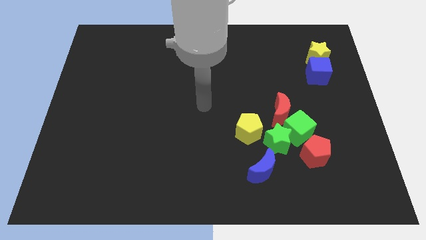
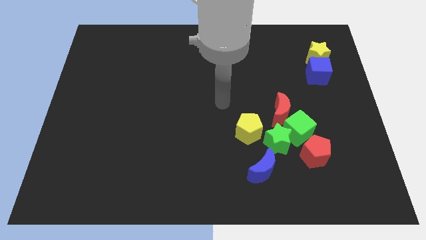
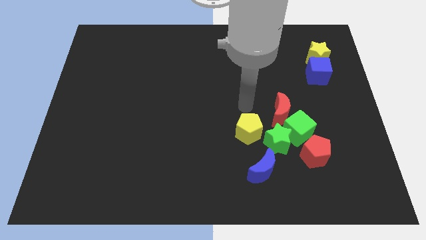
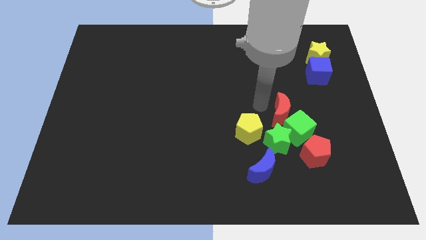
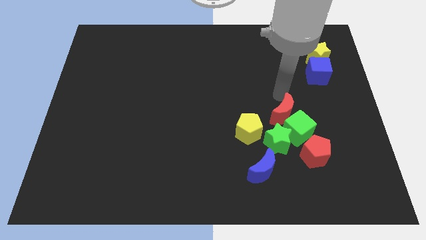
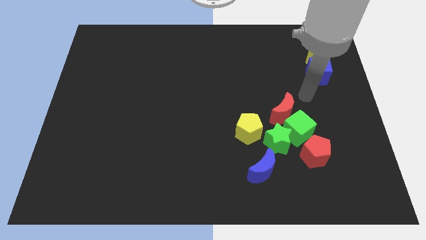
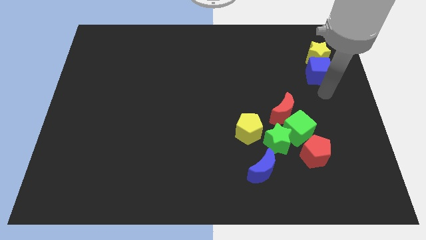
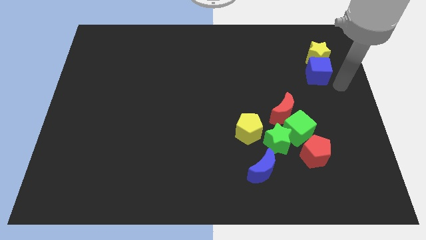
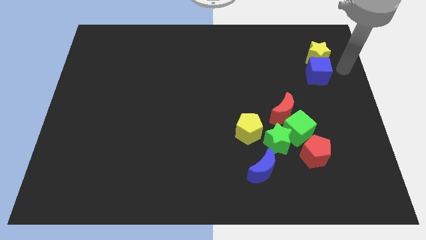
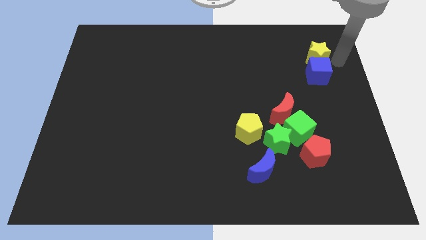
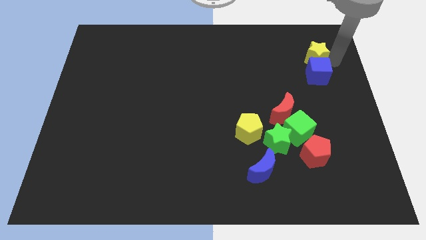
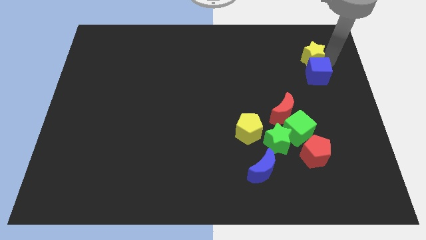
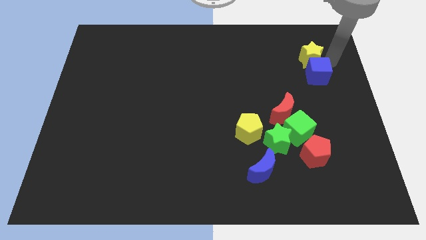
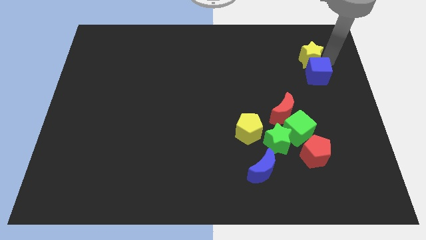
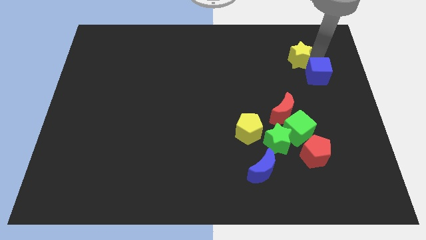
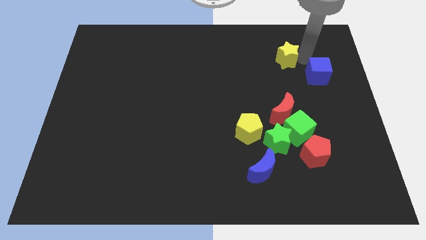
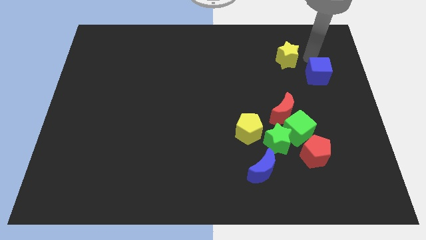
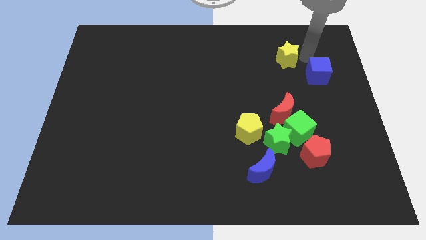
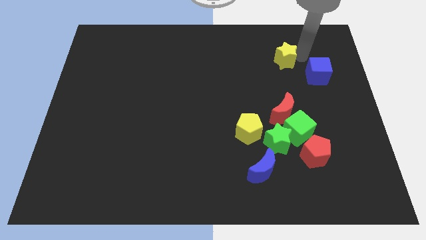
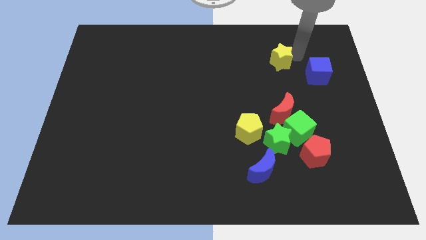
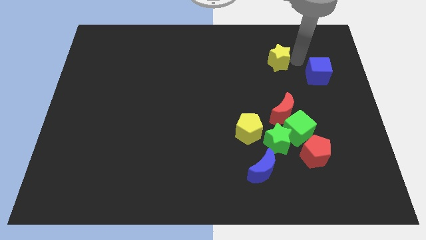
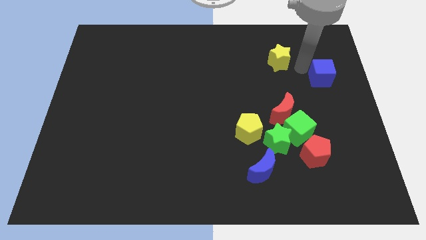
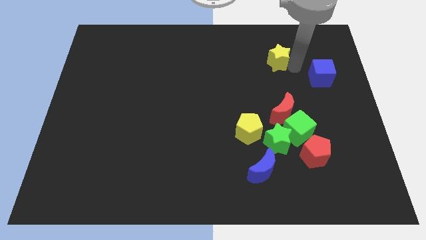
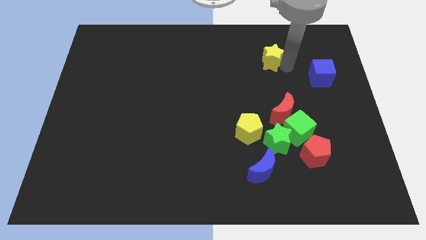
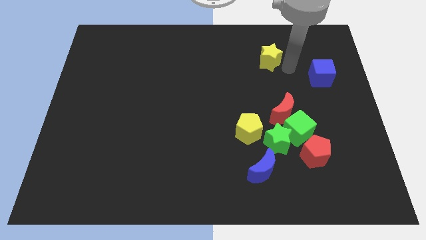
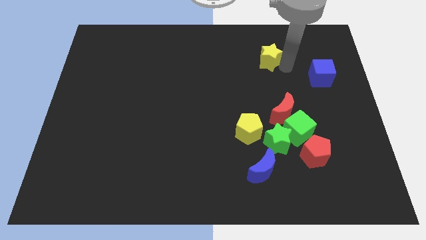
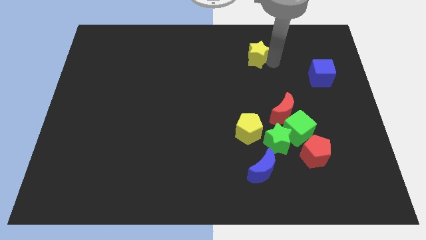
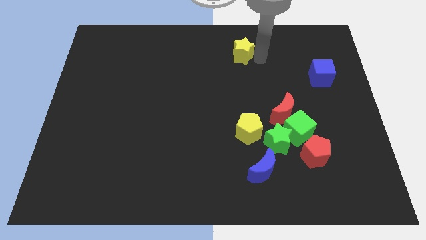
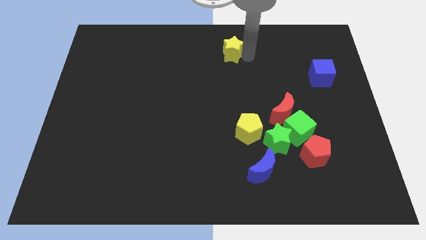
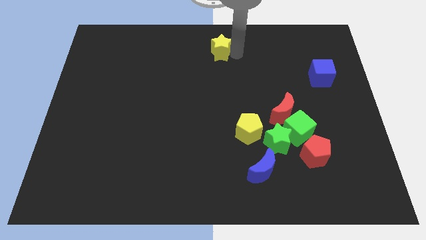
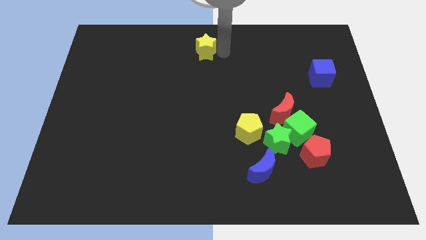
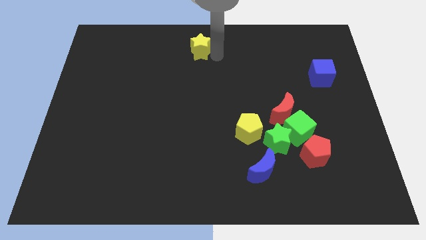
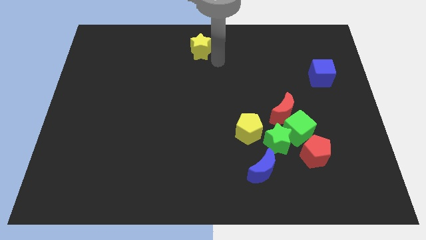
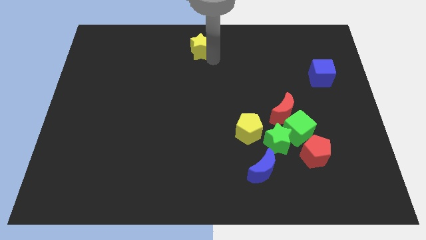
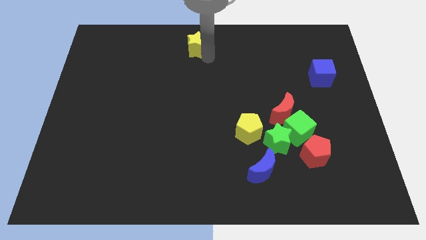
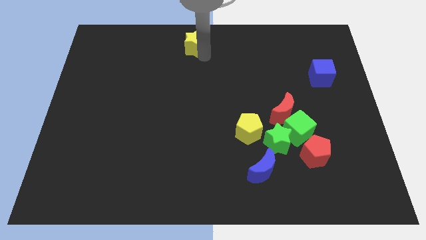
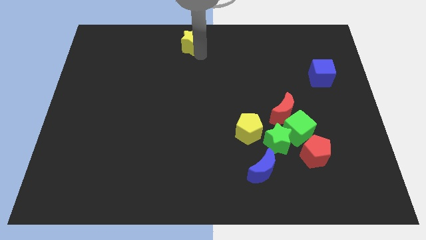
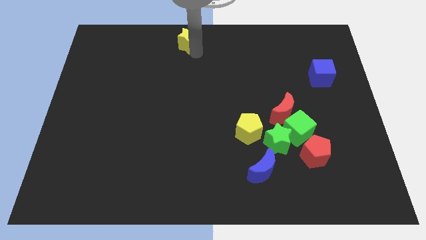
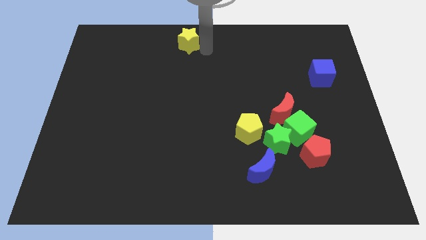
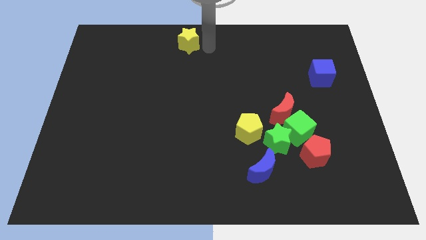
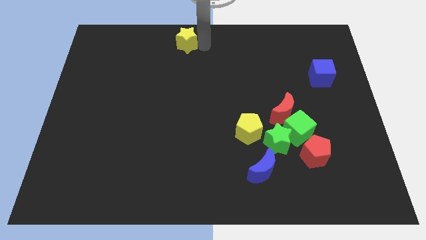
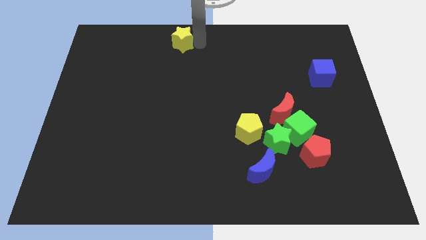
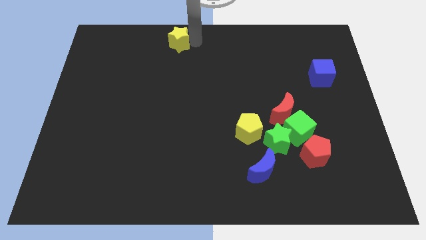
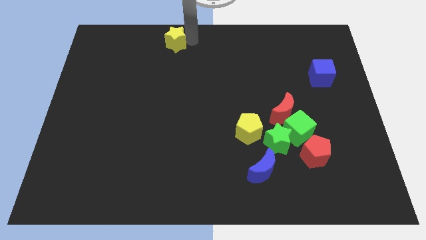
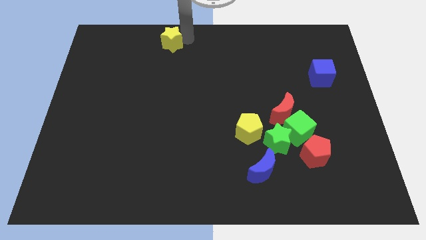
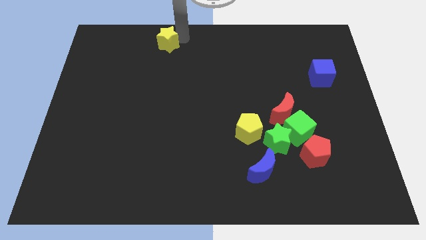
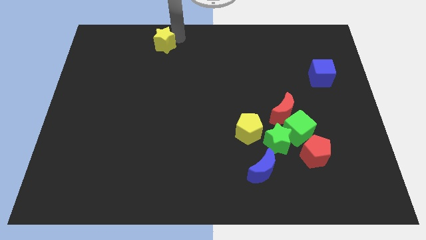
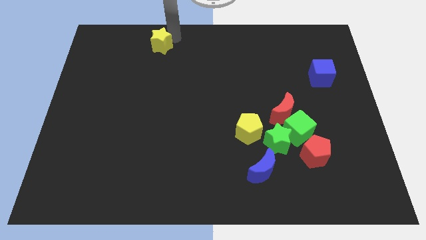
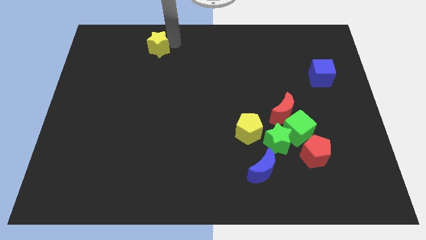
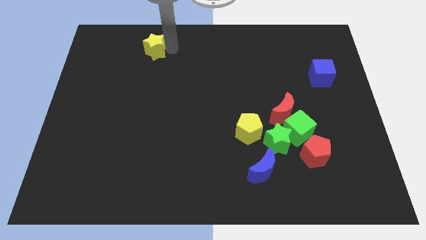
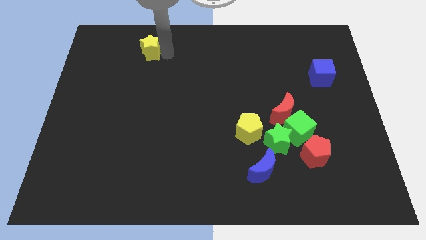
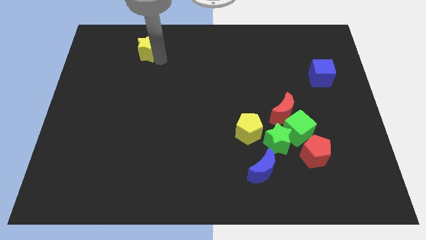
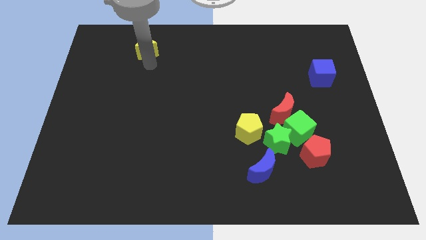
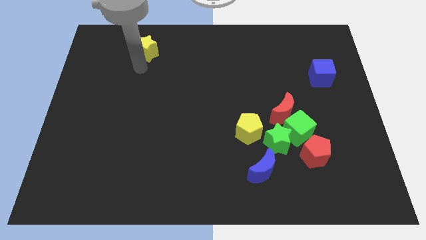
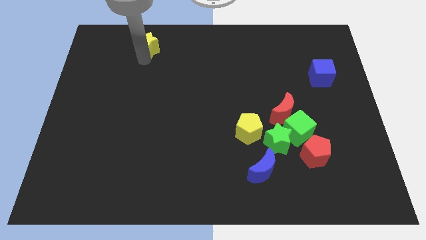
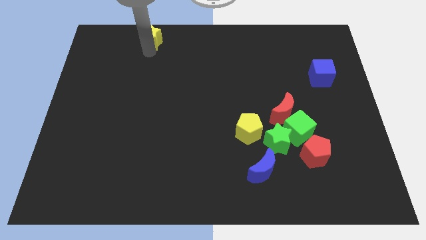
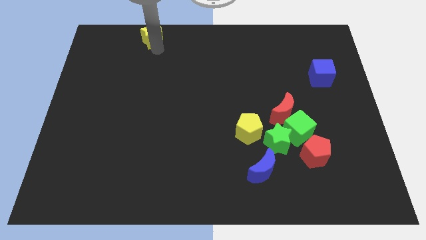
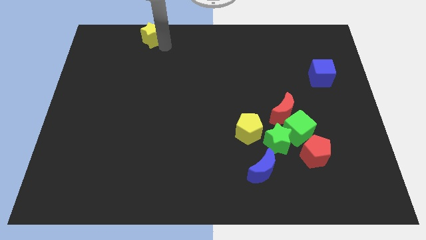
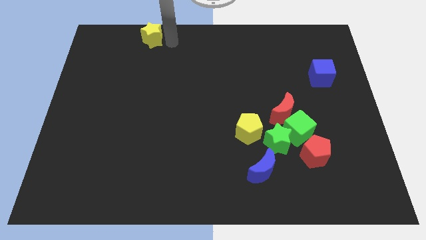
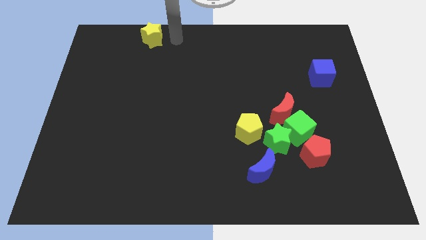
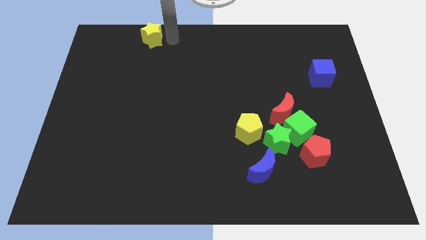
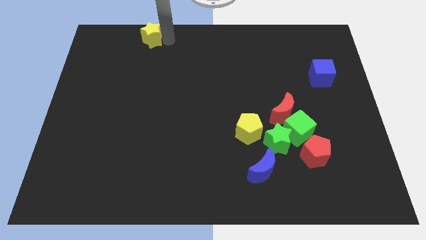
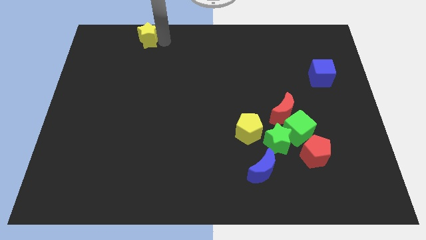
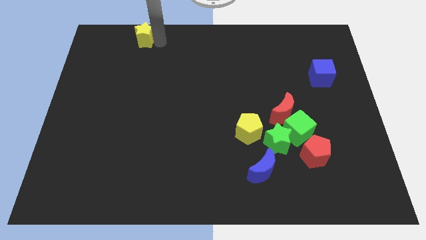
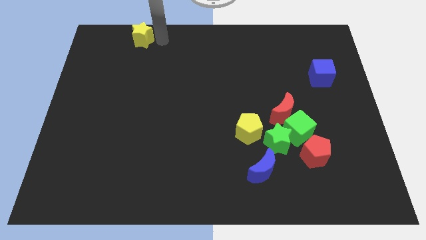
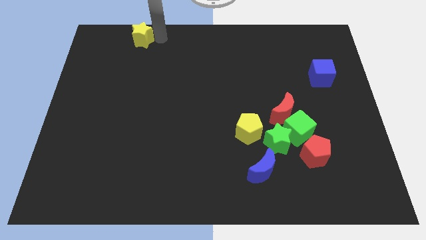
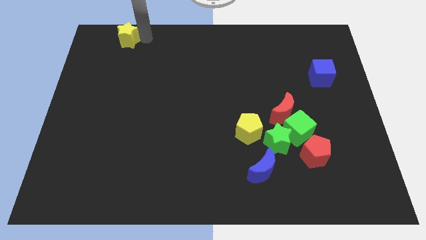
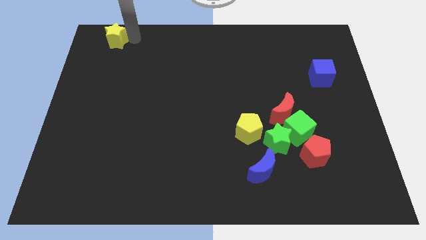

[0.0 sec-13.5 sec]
move the yellow star to the upper left corner
